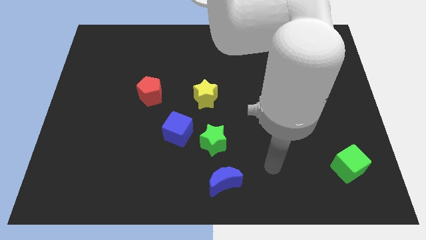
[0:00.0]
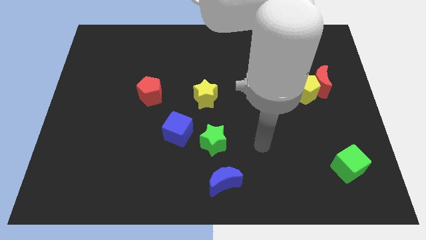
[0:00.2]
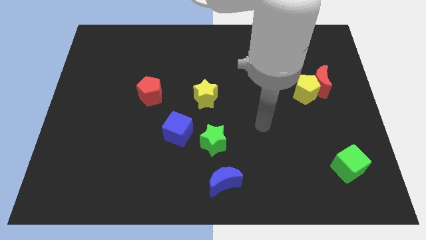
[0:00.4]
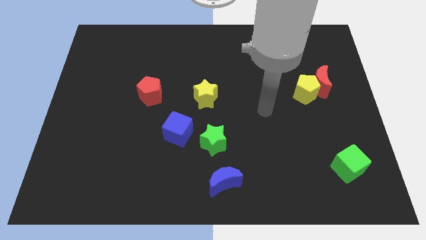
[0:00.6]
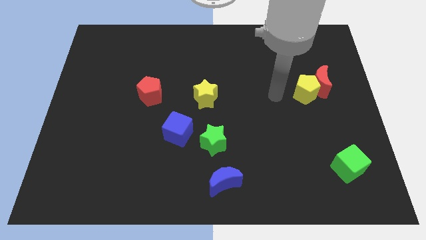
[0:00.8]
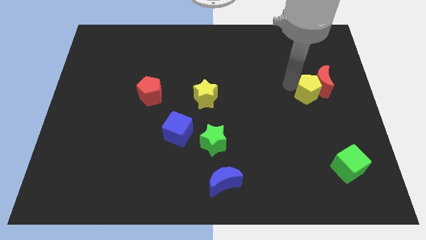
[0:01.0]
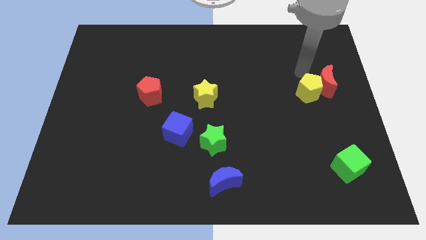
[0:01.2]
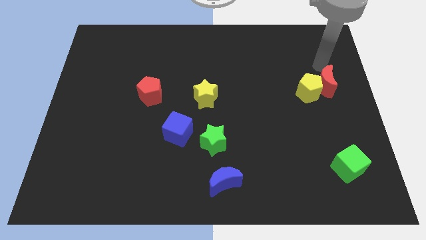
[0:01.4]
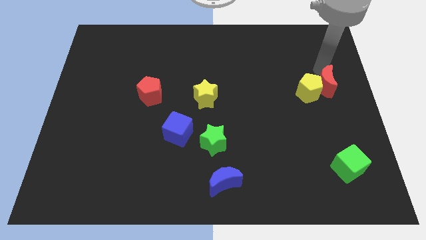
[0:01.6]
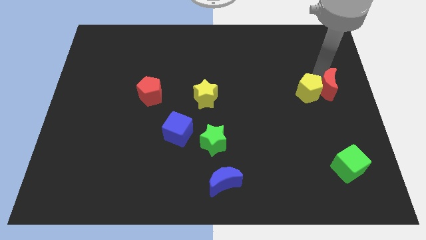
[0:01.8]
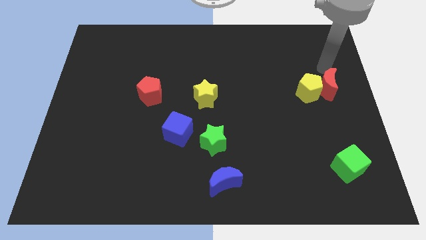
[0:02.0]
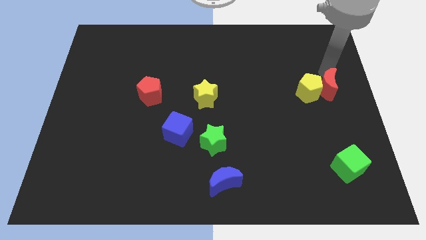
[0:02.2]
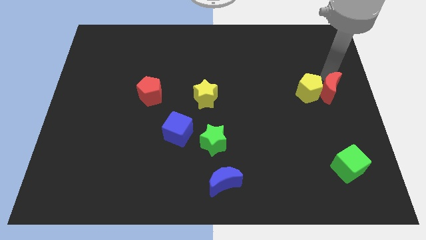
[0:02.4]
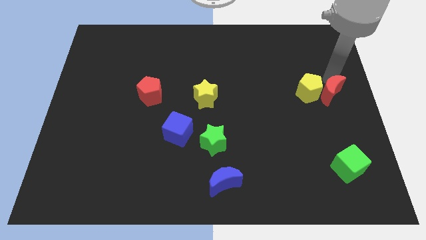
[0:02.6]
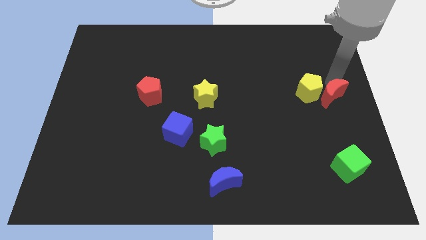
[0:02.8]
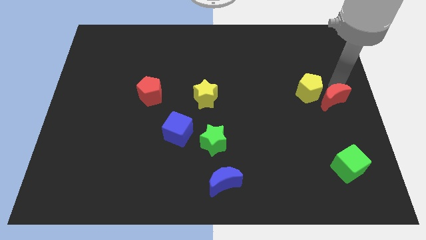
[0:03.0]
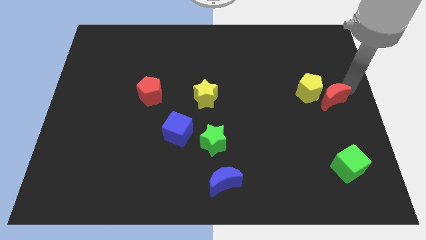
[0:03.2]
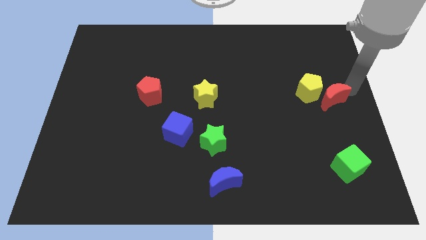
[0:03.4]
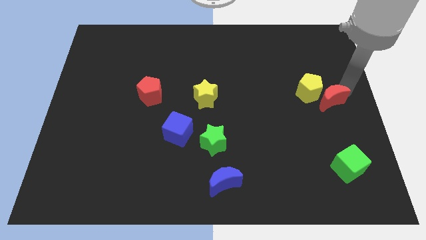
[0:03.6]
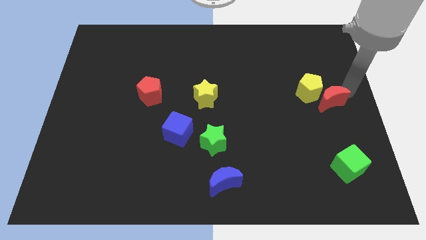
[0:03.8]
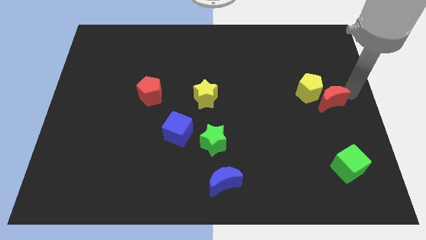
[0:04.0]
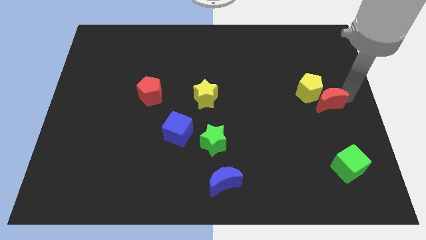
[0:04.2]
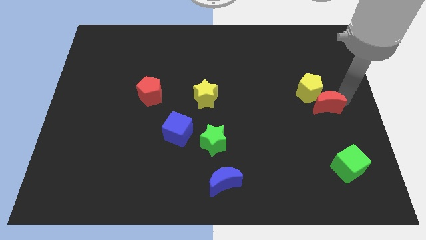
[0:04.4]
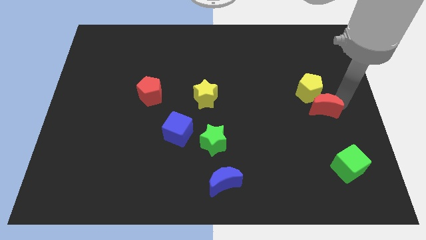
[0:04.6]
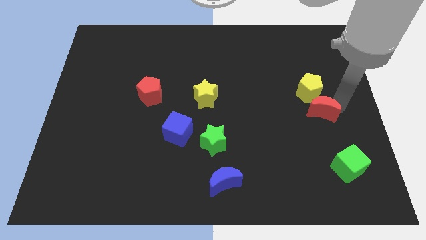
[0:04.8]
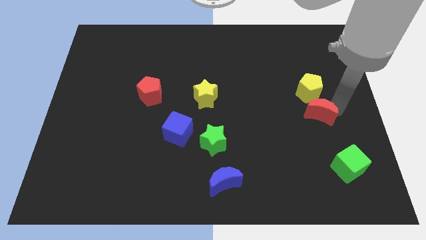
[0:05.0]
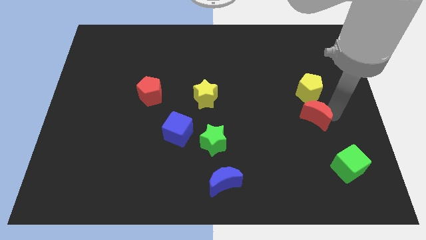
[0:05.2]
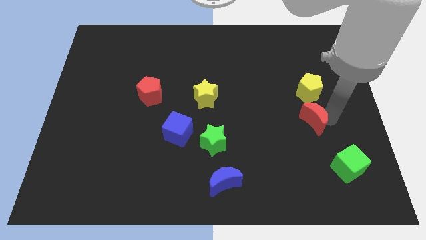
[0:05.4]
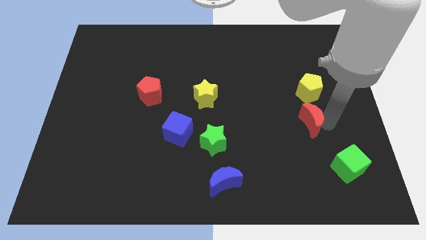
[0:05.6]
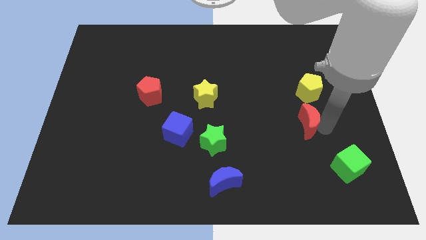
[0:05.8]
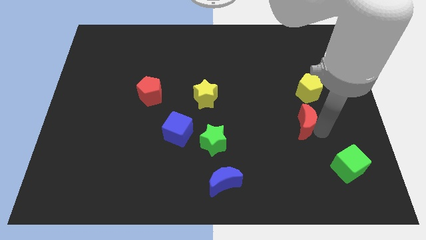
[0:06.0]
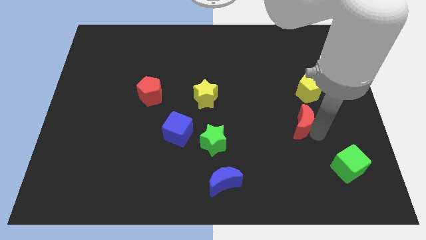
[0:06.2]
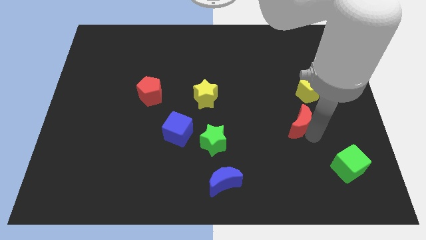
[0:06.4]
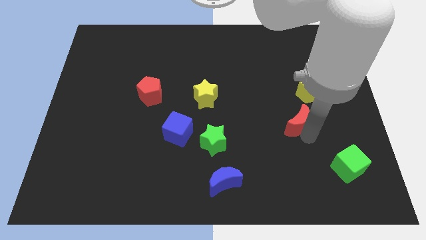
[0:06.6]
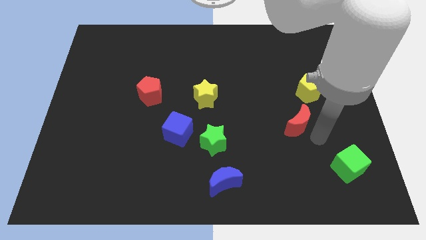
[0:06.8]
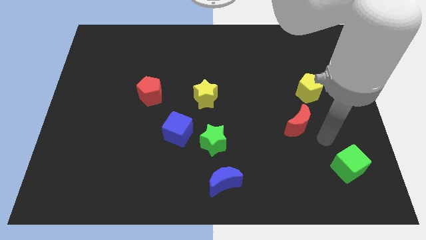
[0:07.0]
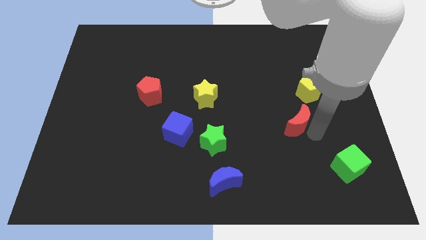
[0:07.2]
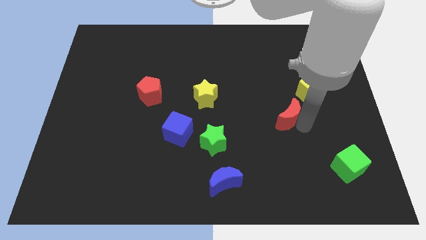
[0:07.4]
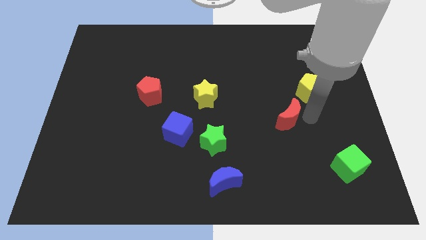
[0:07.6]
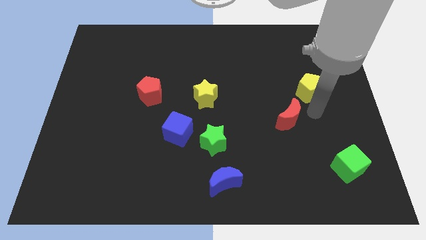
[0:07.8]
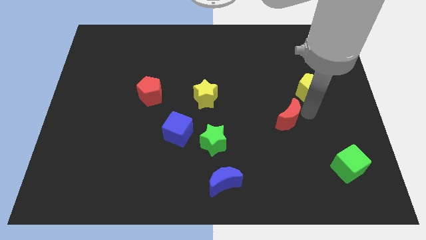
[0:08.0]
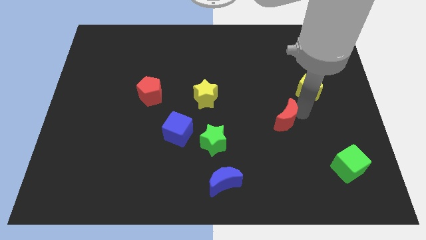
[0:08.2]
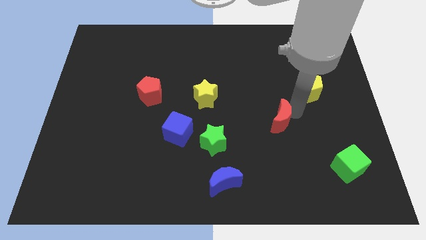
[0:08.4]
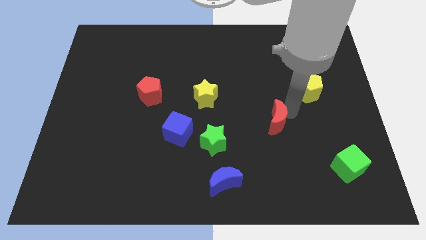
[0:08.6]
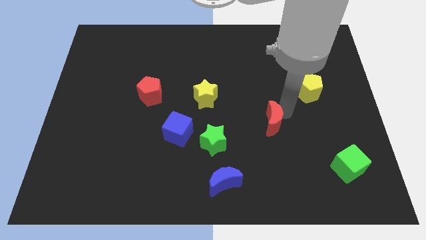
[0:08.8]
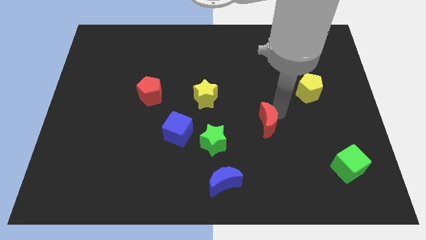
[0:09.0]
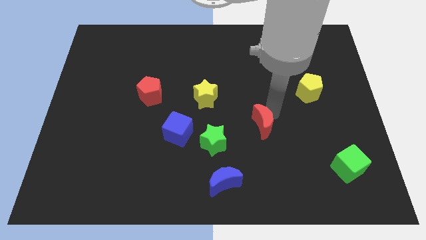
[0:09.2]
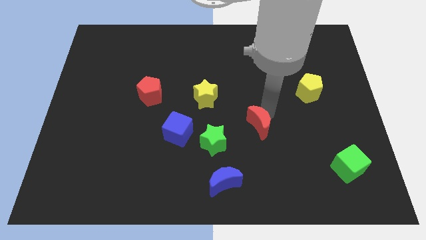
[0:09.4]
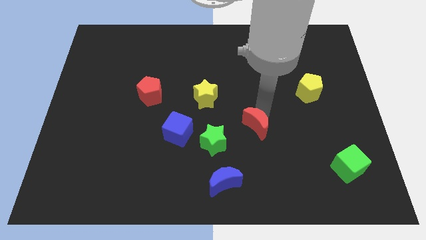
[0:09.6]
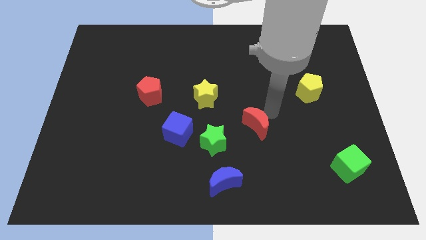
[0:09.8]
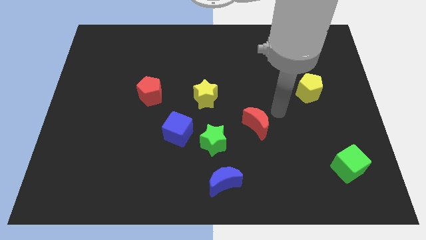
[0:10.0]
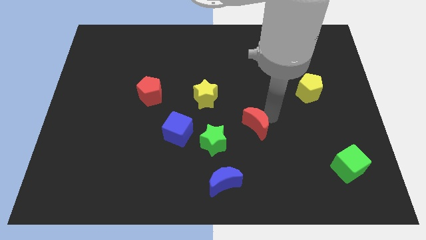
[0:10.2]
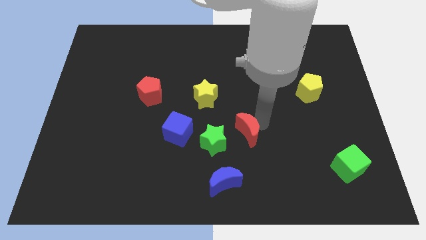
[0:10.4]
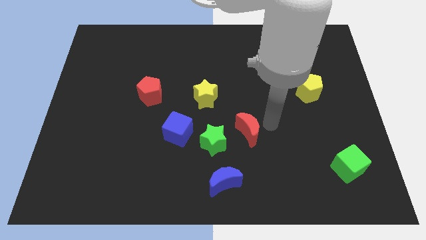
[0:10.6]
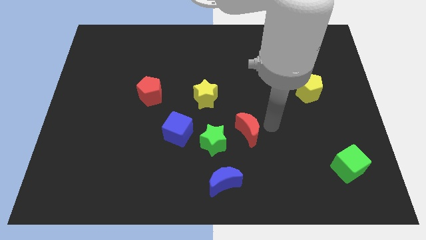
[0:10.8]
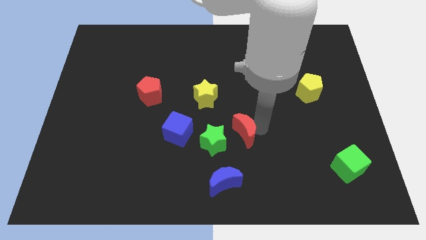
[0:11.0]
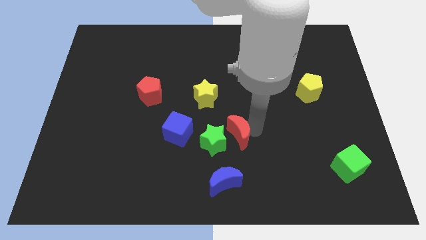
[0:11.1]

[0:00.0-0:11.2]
push the red moon to the green star

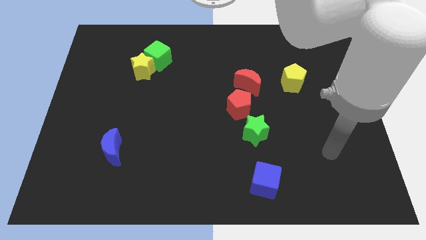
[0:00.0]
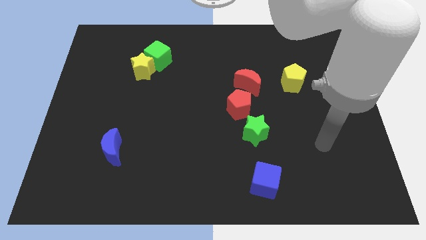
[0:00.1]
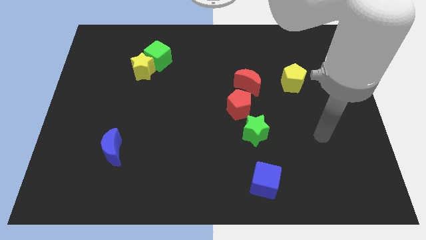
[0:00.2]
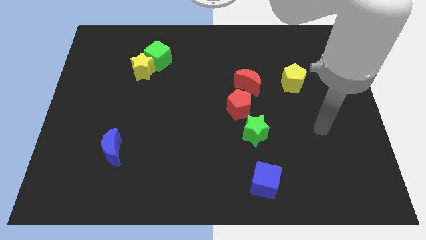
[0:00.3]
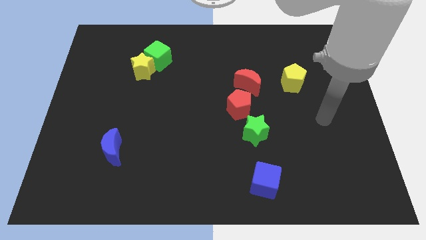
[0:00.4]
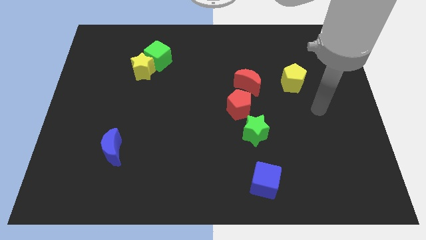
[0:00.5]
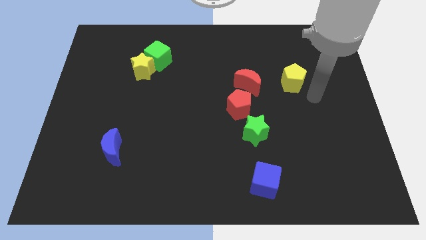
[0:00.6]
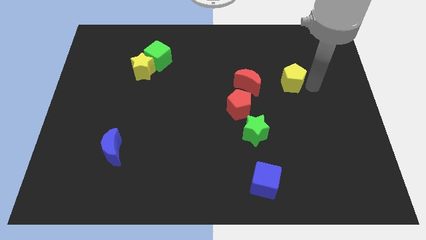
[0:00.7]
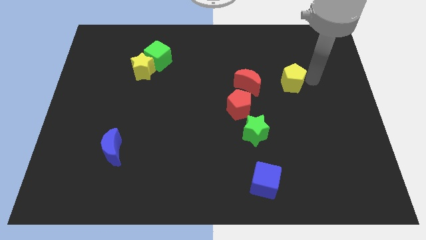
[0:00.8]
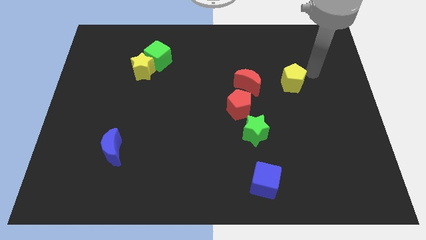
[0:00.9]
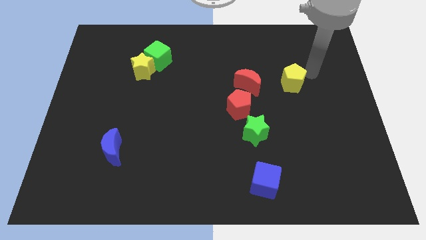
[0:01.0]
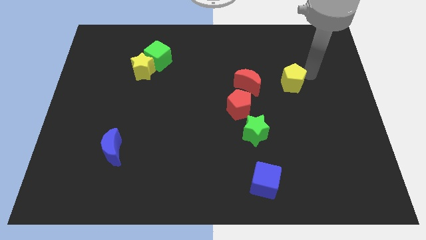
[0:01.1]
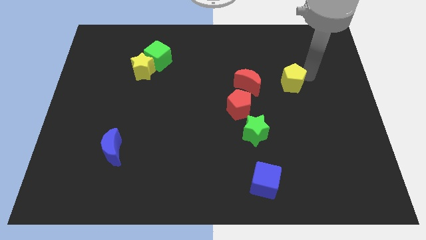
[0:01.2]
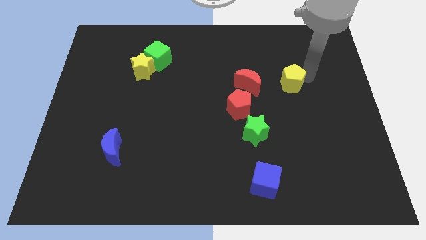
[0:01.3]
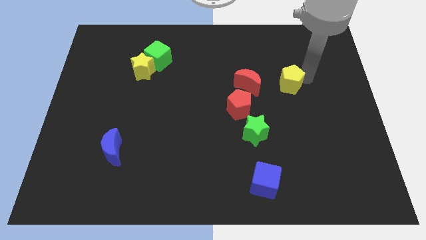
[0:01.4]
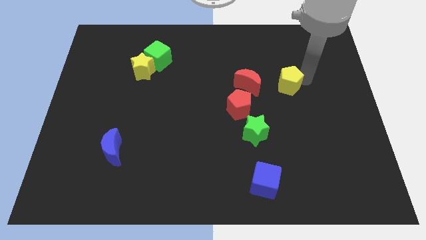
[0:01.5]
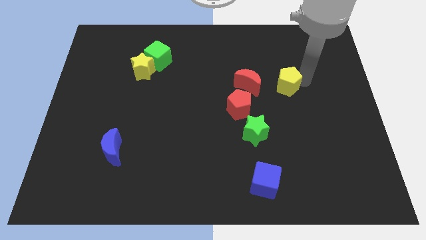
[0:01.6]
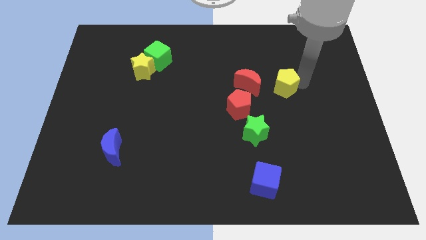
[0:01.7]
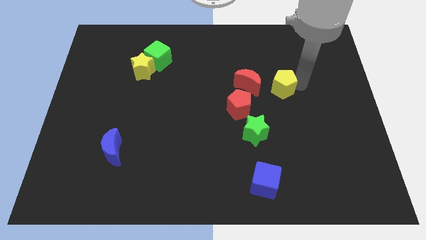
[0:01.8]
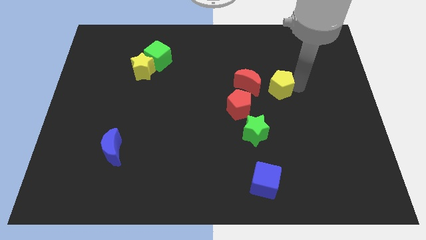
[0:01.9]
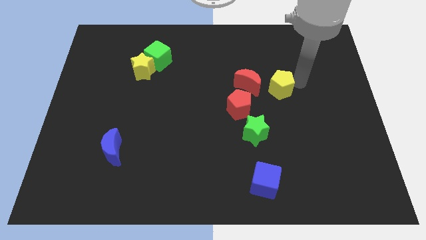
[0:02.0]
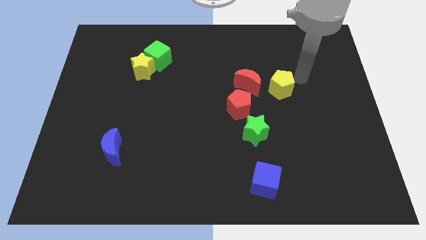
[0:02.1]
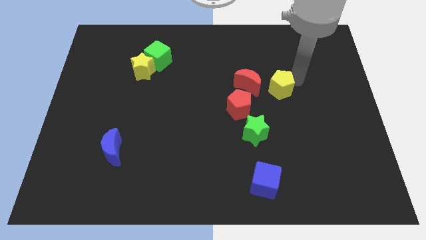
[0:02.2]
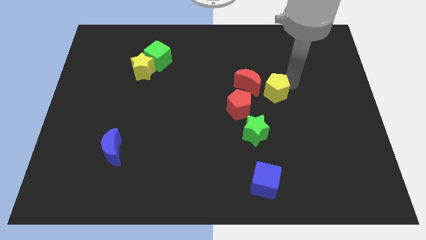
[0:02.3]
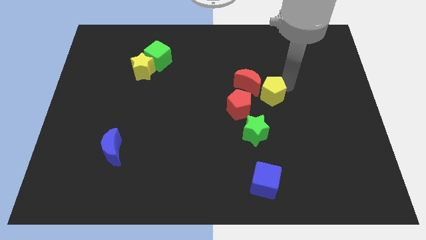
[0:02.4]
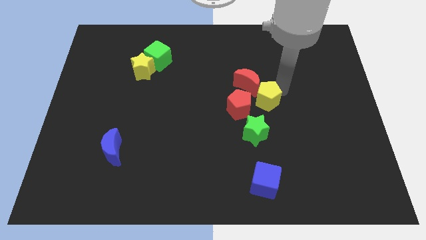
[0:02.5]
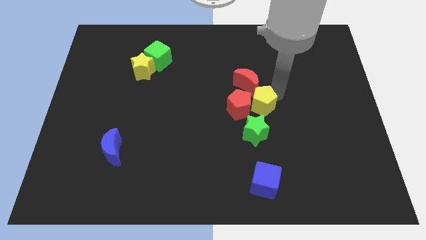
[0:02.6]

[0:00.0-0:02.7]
slide the yellow pentagon to the red pentagon
